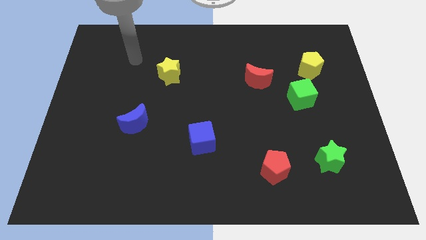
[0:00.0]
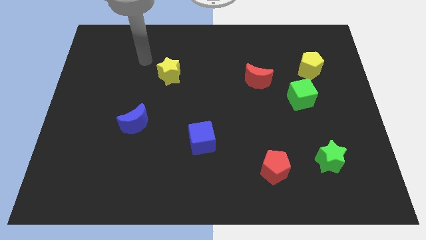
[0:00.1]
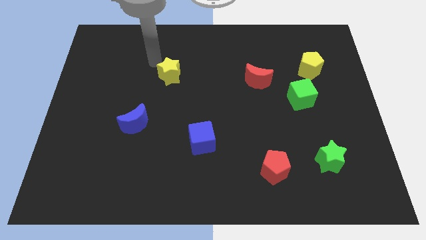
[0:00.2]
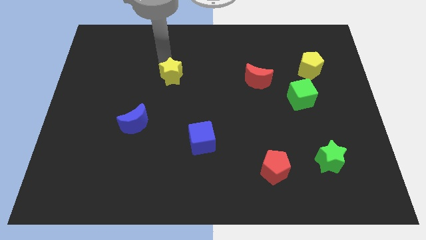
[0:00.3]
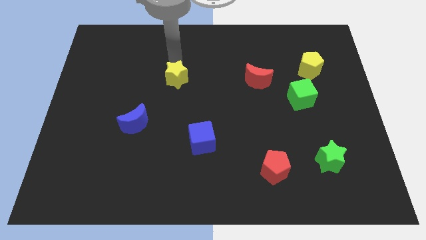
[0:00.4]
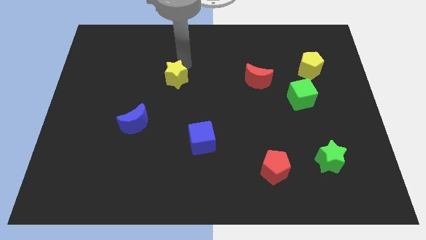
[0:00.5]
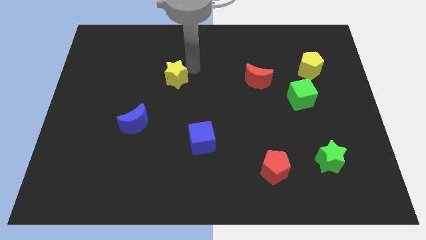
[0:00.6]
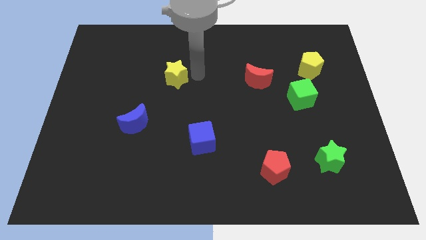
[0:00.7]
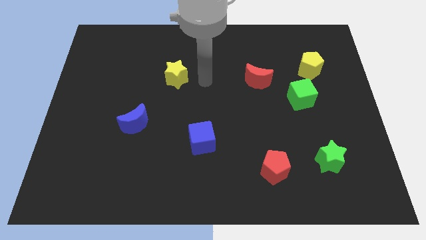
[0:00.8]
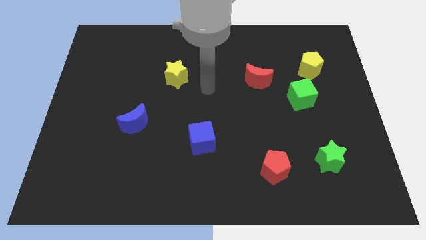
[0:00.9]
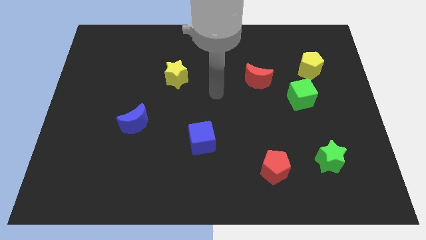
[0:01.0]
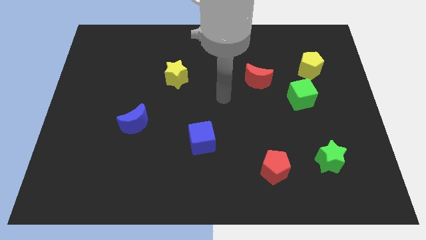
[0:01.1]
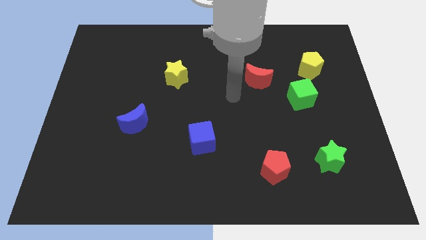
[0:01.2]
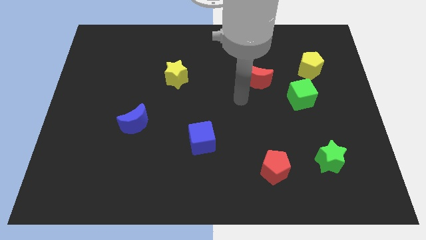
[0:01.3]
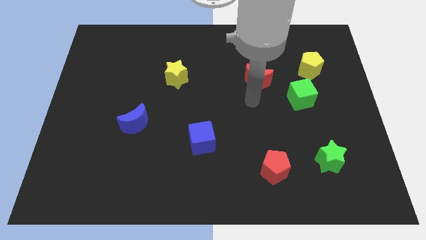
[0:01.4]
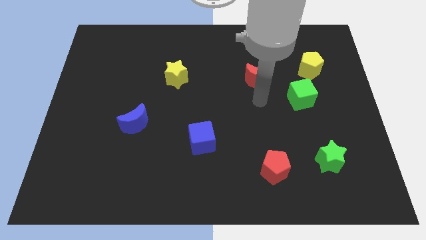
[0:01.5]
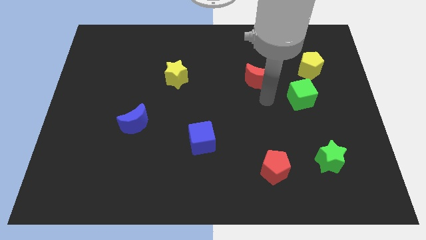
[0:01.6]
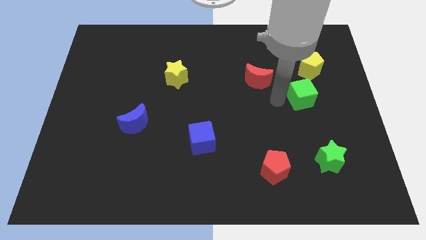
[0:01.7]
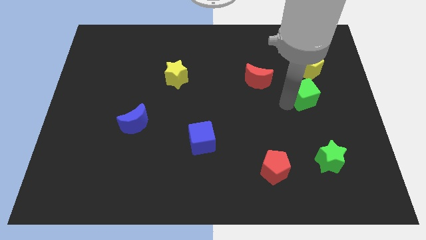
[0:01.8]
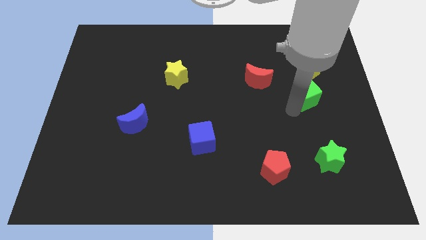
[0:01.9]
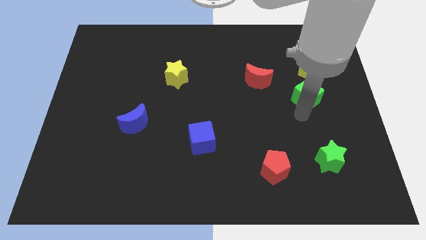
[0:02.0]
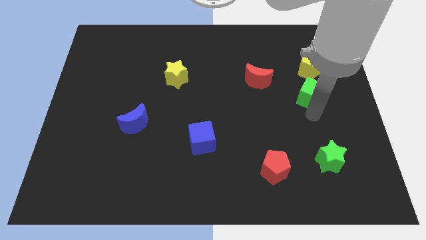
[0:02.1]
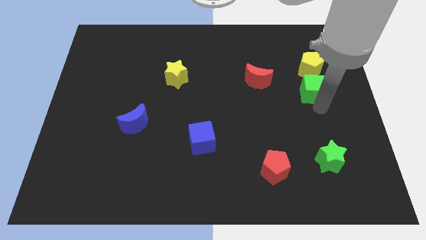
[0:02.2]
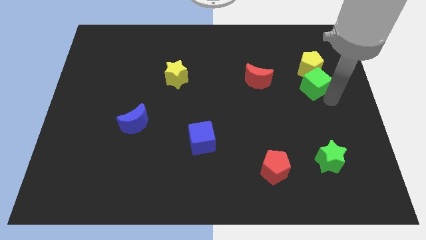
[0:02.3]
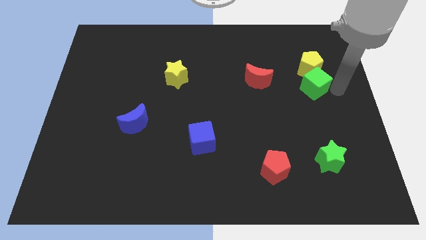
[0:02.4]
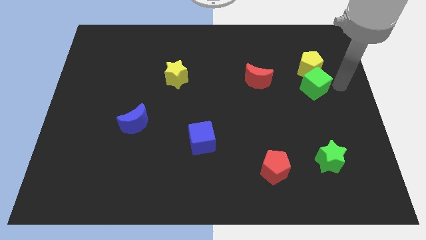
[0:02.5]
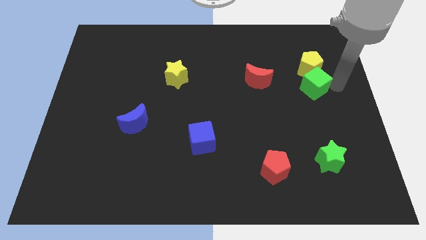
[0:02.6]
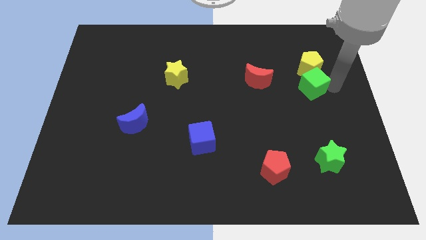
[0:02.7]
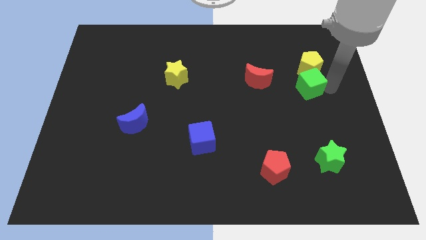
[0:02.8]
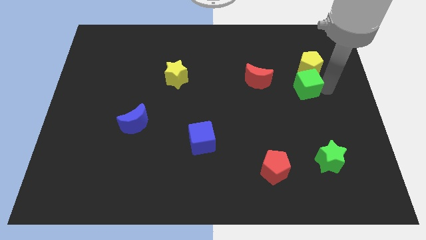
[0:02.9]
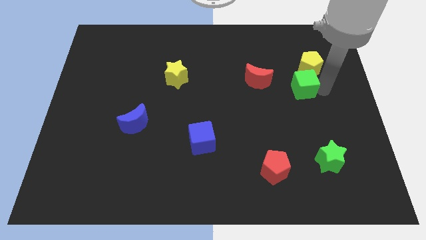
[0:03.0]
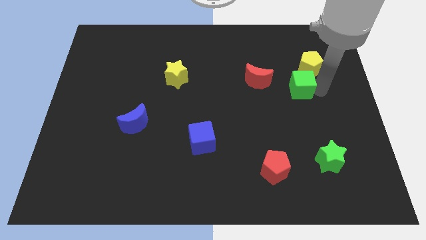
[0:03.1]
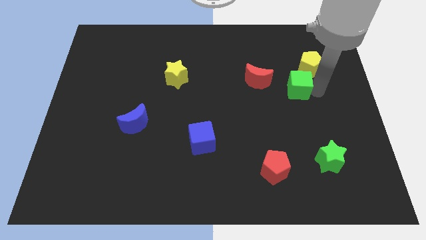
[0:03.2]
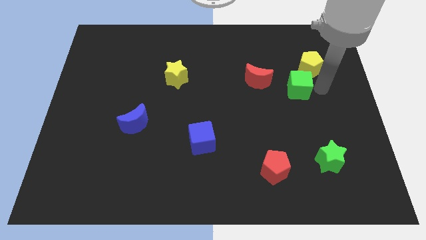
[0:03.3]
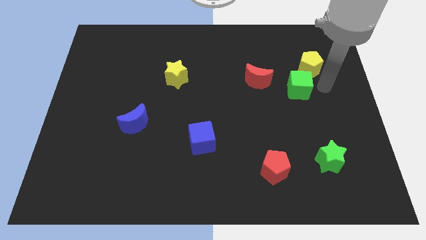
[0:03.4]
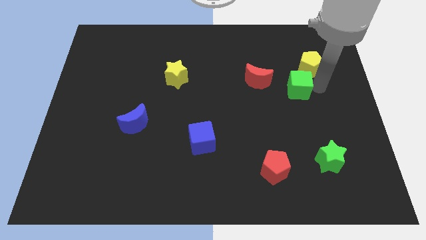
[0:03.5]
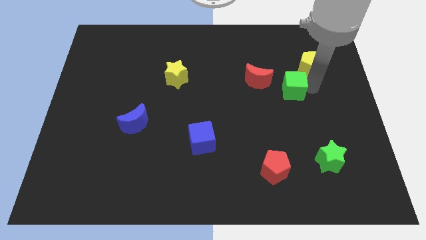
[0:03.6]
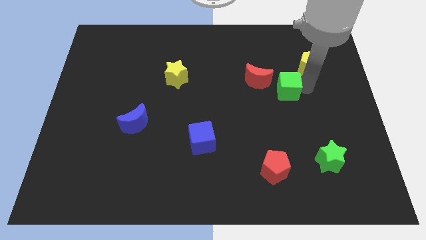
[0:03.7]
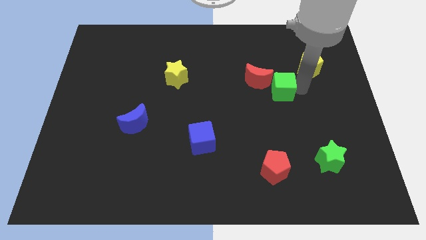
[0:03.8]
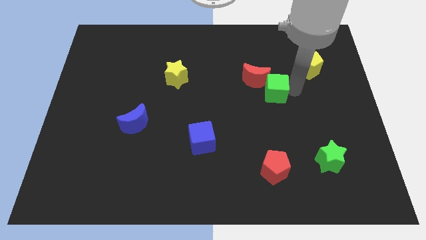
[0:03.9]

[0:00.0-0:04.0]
put the green cube to the red moon

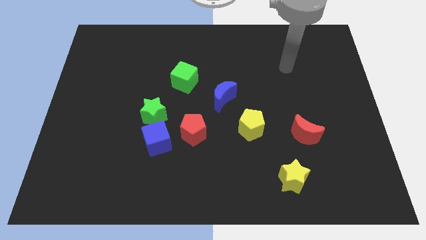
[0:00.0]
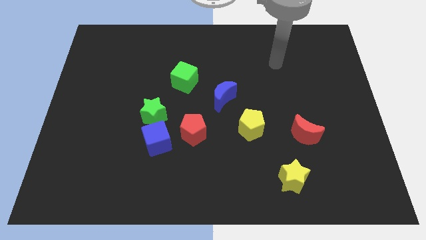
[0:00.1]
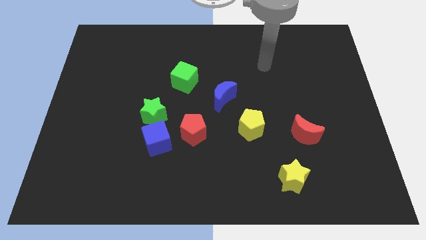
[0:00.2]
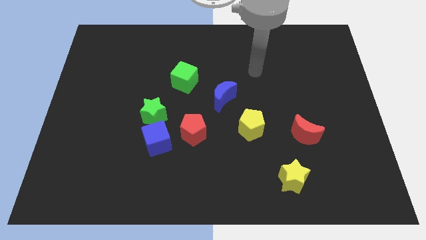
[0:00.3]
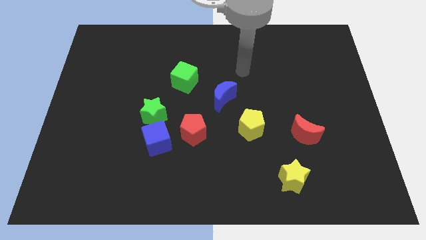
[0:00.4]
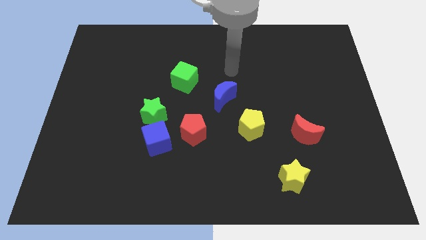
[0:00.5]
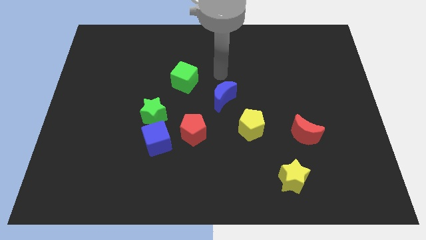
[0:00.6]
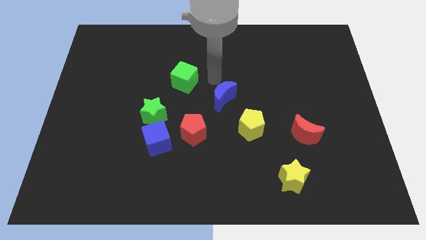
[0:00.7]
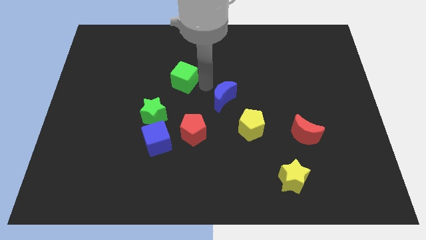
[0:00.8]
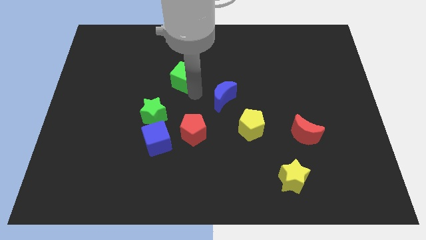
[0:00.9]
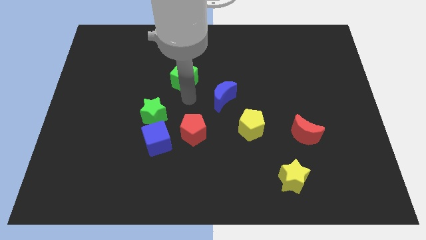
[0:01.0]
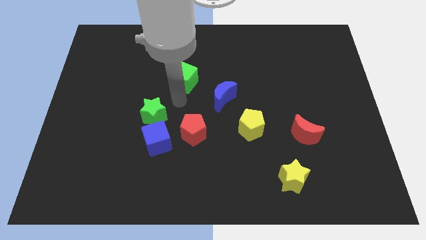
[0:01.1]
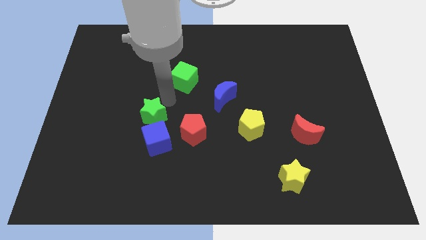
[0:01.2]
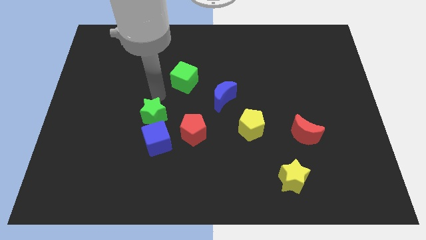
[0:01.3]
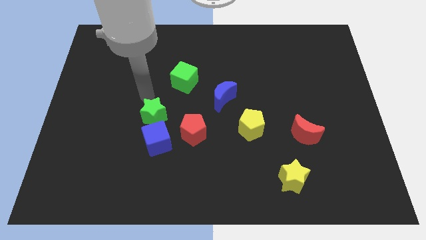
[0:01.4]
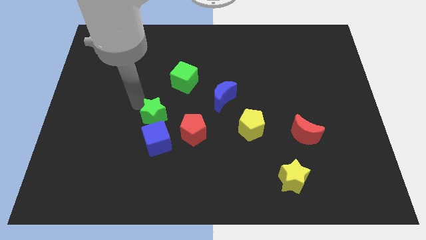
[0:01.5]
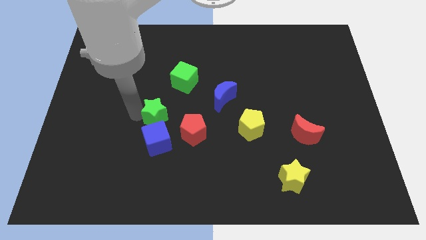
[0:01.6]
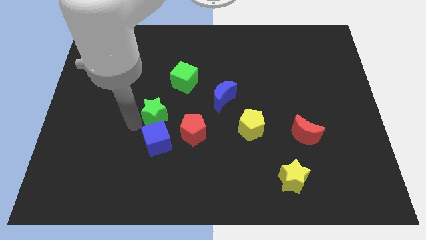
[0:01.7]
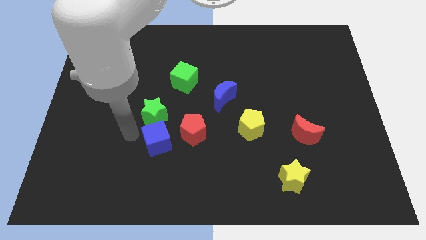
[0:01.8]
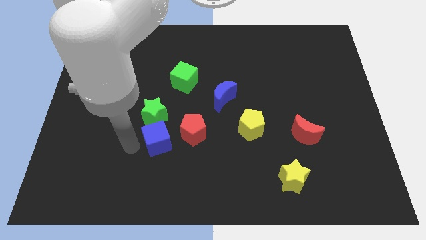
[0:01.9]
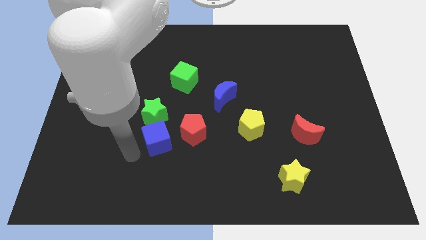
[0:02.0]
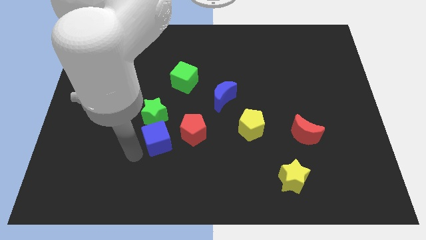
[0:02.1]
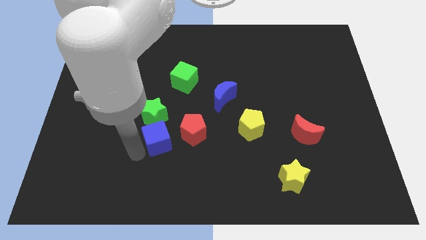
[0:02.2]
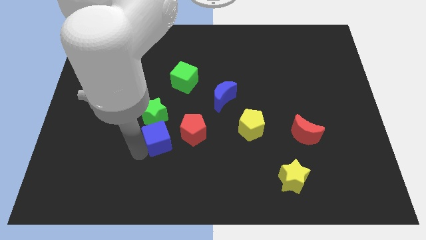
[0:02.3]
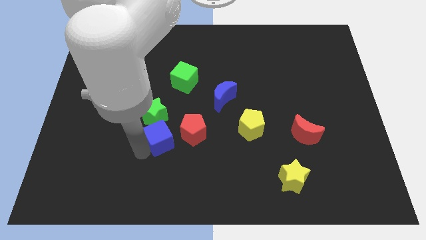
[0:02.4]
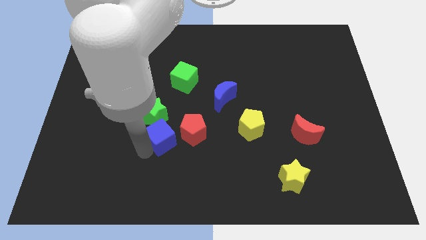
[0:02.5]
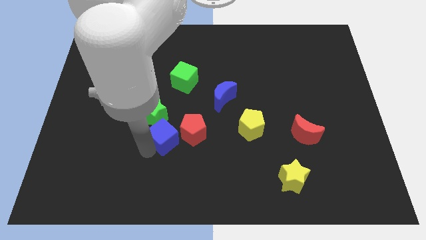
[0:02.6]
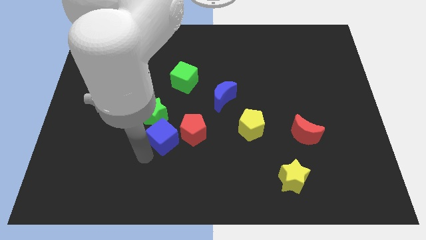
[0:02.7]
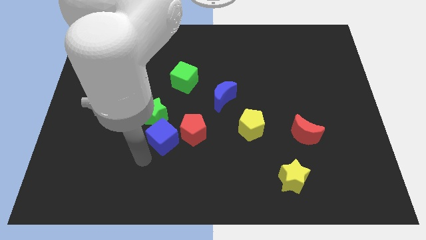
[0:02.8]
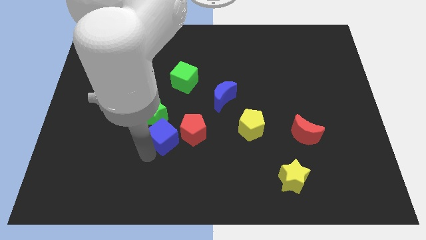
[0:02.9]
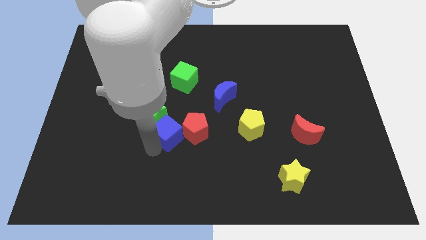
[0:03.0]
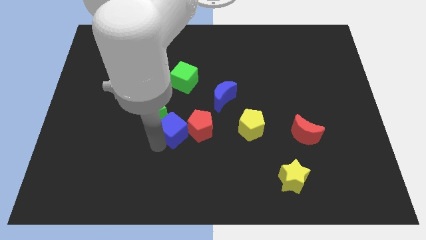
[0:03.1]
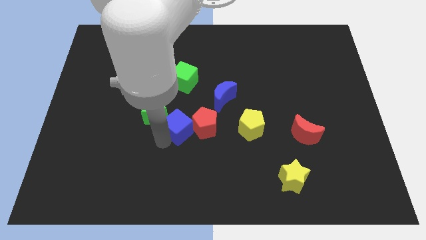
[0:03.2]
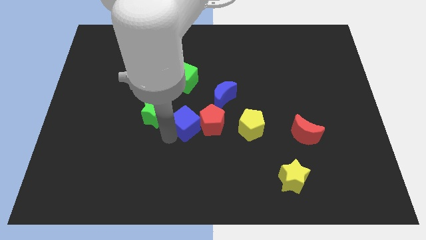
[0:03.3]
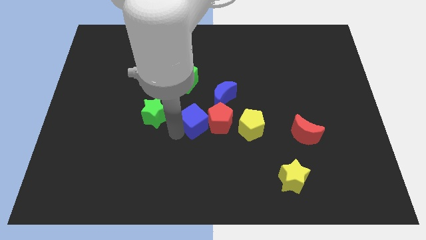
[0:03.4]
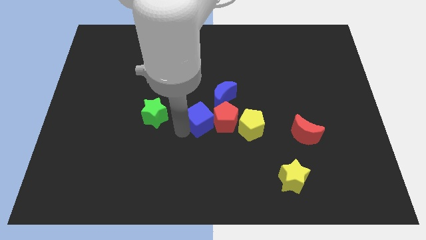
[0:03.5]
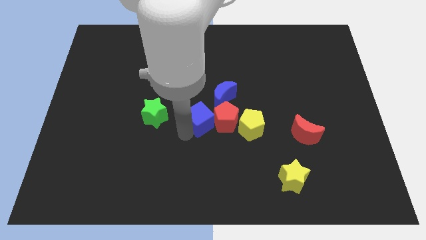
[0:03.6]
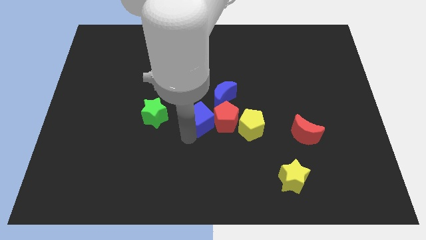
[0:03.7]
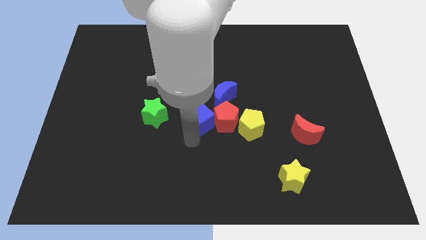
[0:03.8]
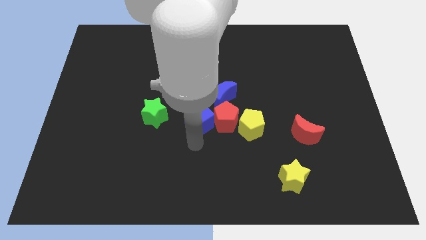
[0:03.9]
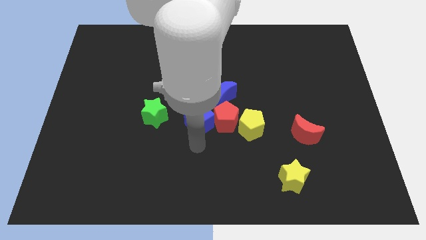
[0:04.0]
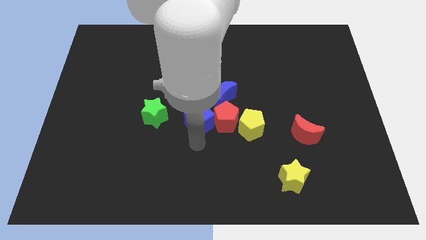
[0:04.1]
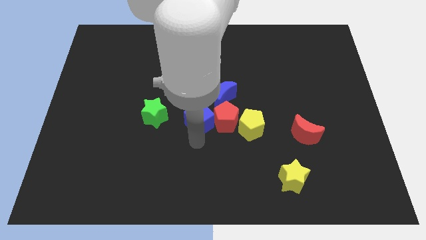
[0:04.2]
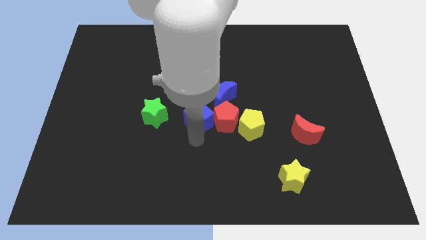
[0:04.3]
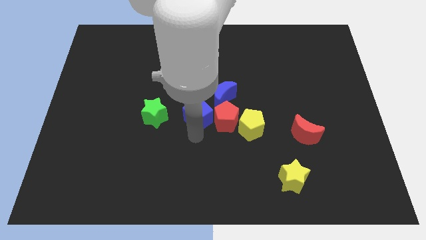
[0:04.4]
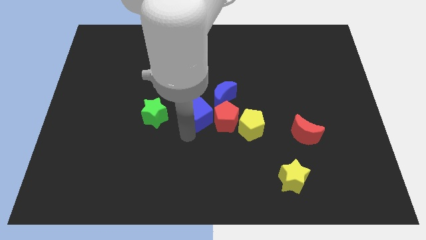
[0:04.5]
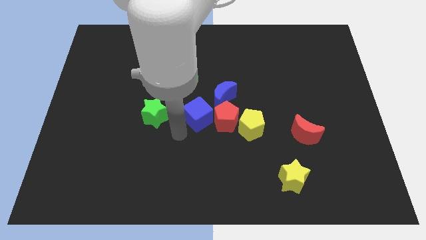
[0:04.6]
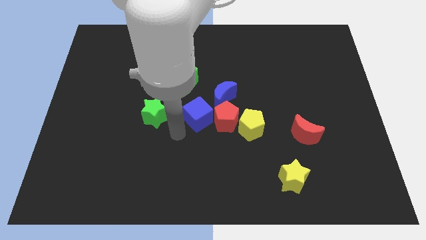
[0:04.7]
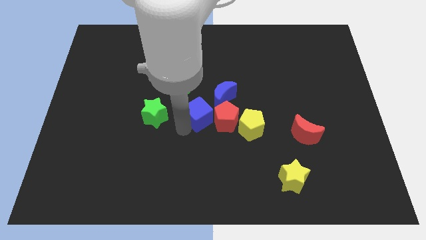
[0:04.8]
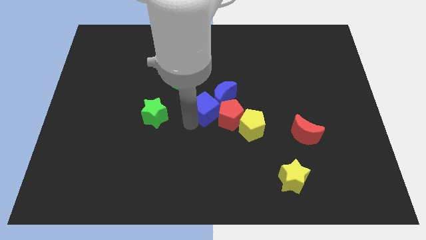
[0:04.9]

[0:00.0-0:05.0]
push the blue cube next to the blue moon
